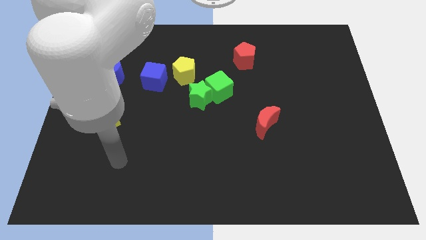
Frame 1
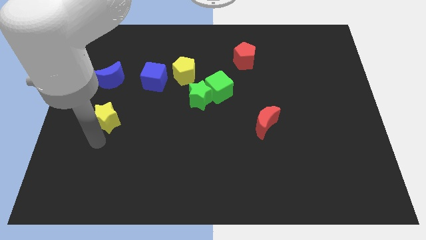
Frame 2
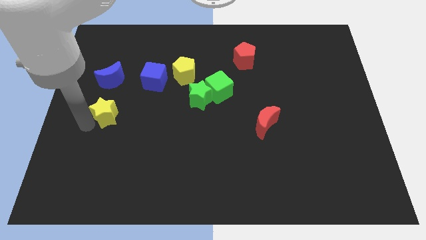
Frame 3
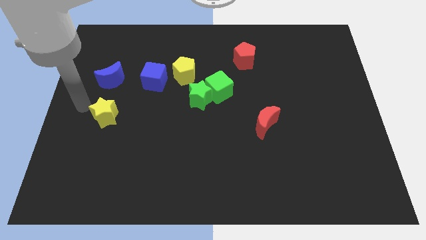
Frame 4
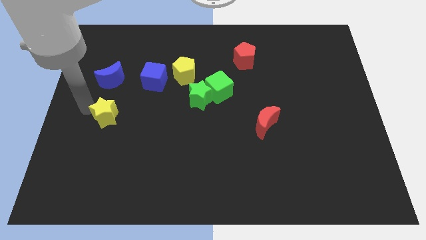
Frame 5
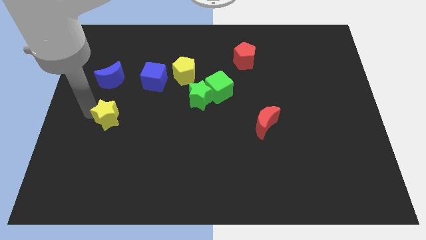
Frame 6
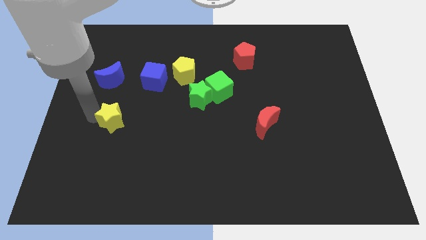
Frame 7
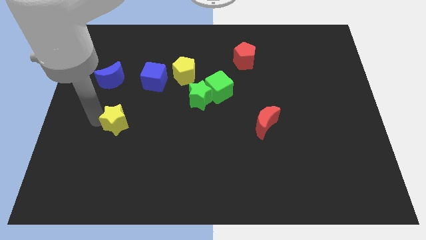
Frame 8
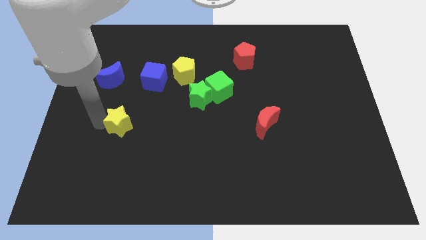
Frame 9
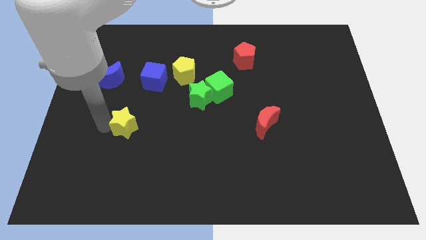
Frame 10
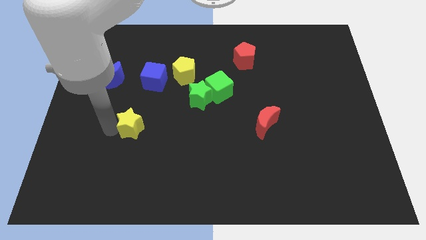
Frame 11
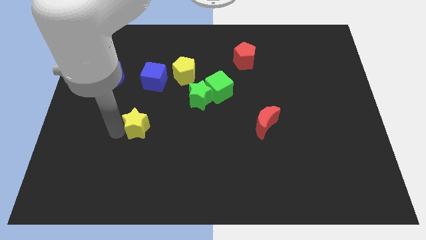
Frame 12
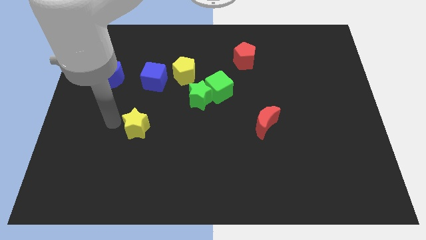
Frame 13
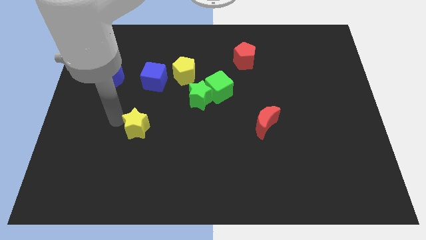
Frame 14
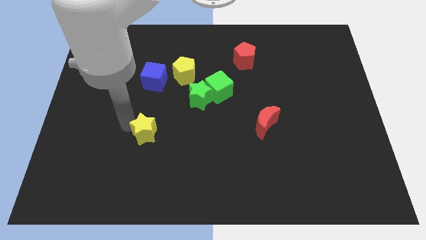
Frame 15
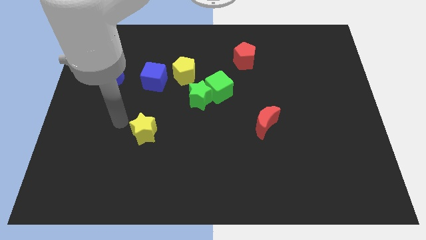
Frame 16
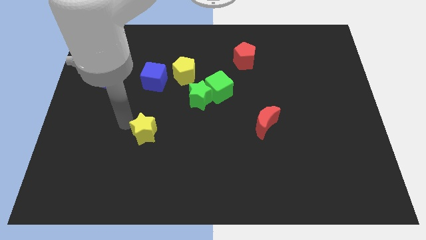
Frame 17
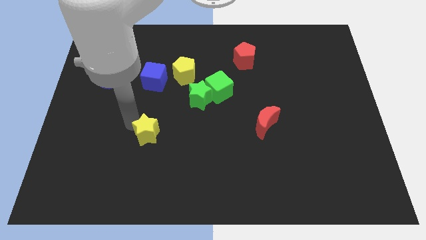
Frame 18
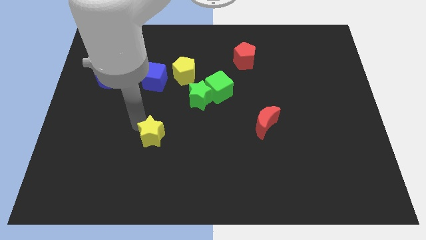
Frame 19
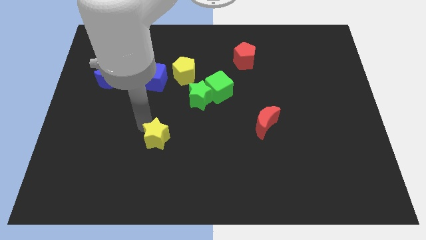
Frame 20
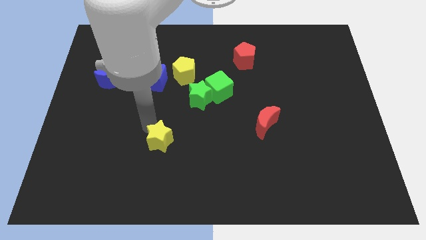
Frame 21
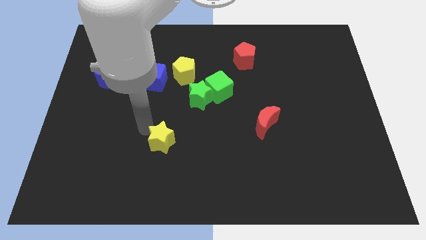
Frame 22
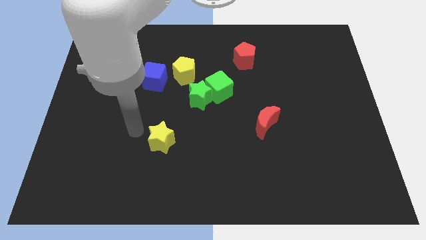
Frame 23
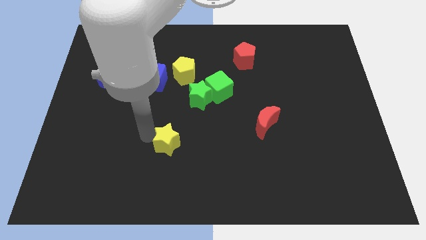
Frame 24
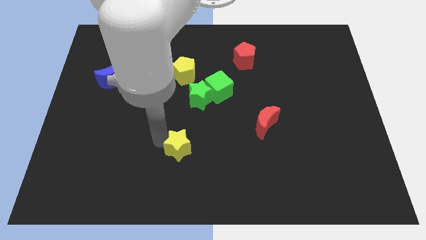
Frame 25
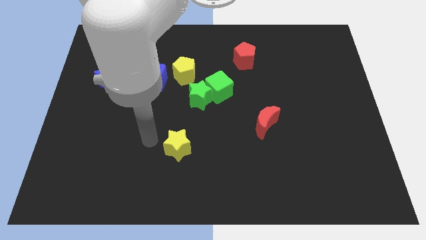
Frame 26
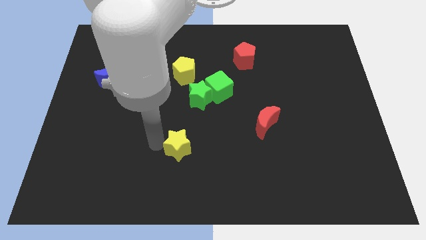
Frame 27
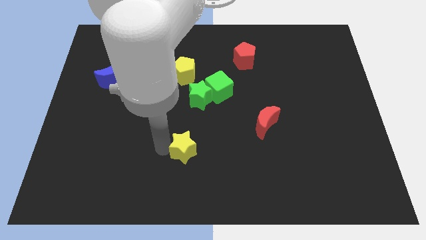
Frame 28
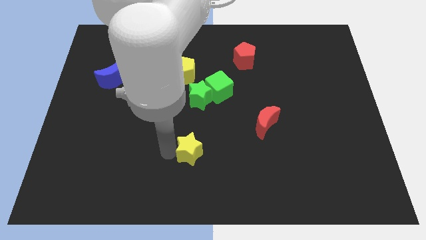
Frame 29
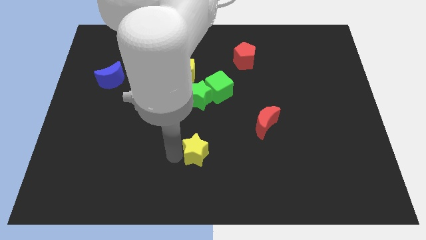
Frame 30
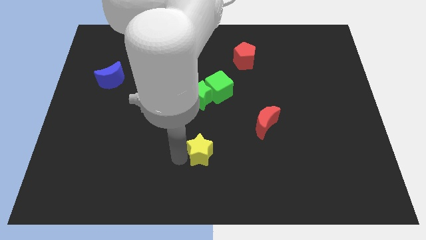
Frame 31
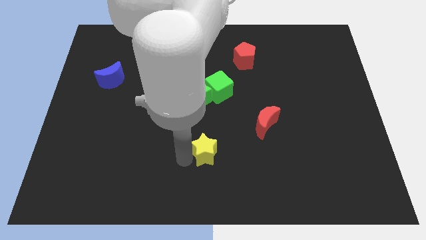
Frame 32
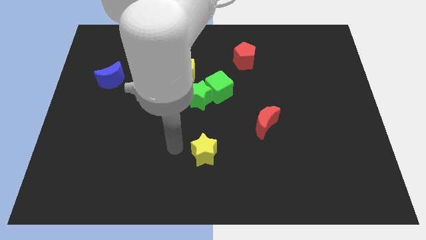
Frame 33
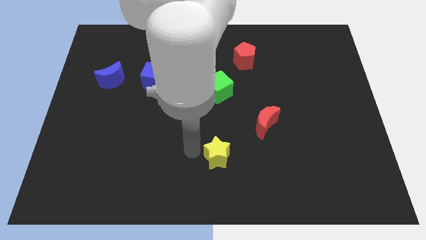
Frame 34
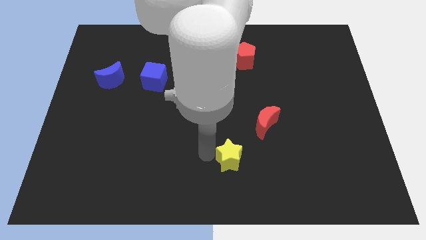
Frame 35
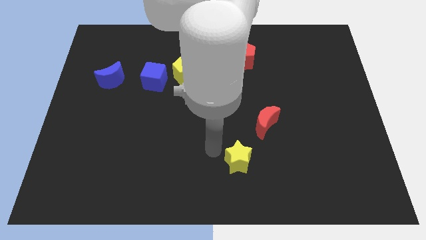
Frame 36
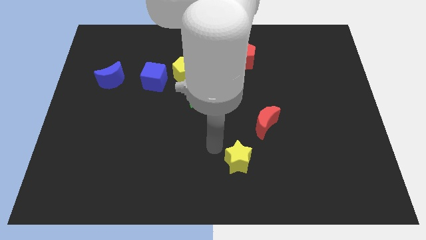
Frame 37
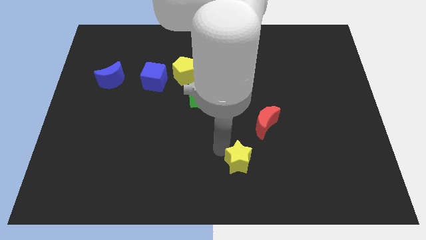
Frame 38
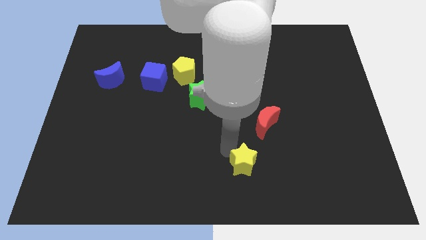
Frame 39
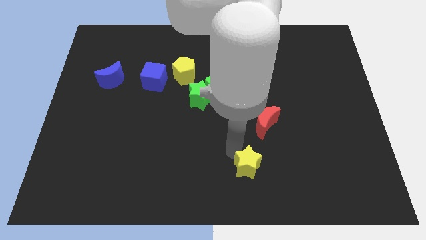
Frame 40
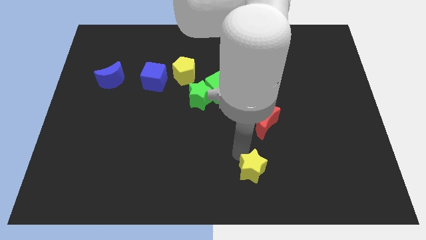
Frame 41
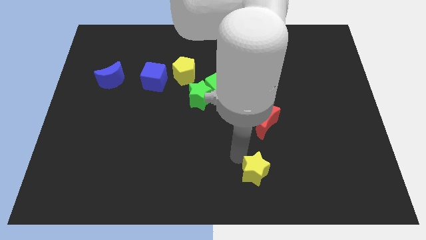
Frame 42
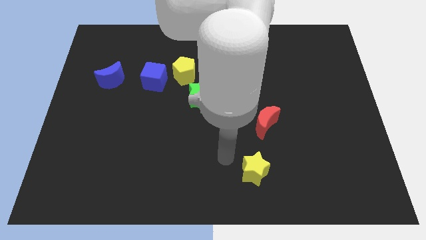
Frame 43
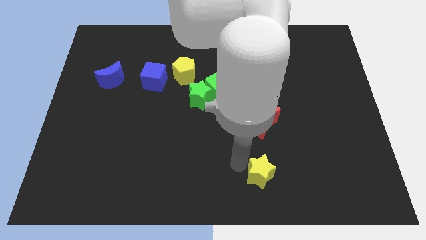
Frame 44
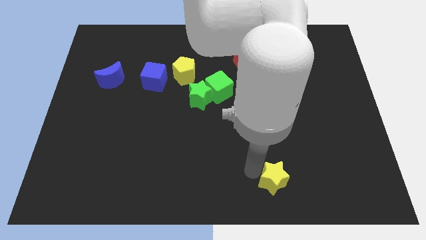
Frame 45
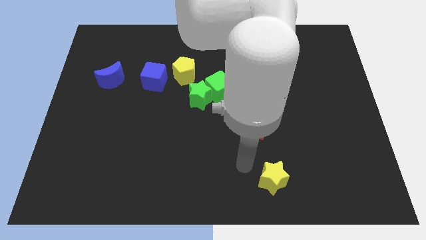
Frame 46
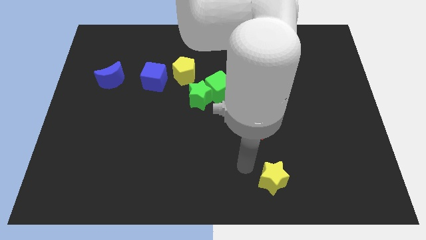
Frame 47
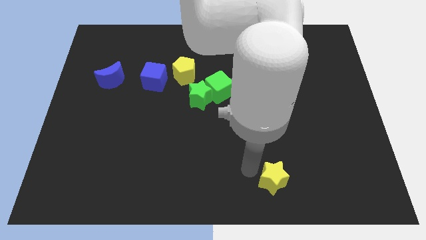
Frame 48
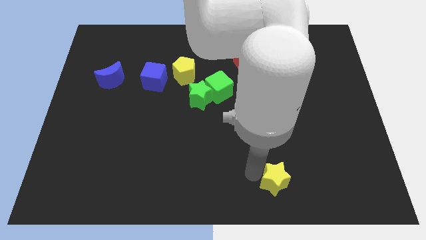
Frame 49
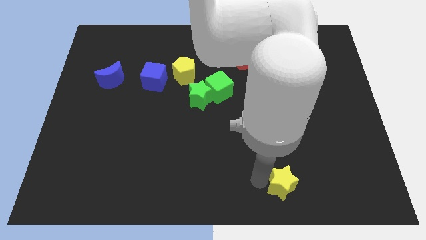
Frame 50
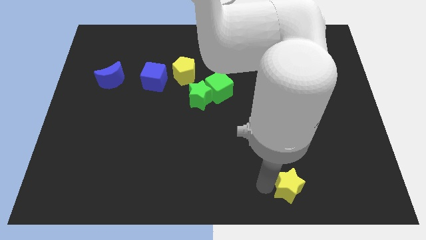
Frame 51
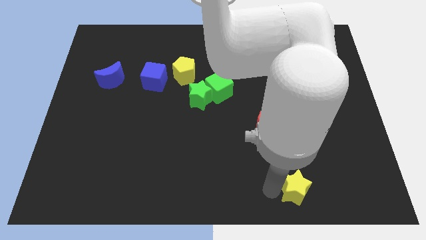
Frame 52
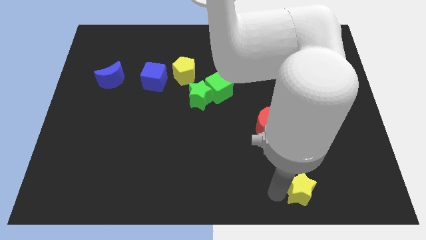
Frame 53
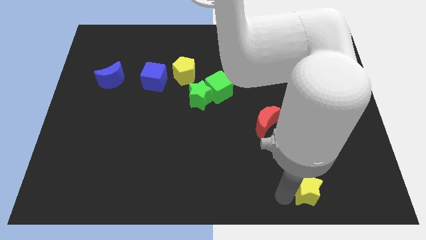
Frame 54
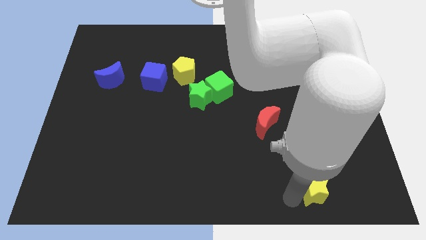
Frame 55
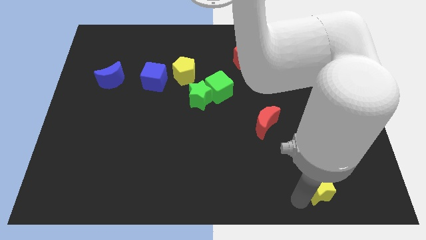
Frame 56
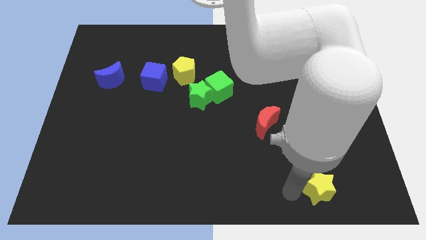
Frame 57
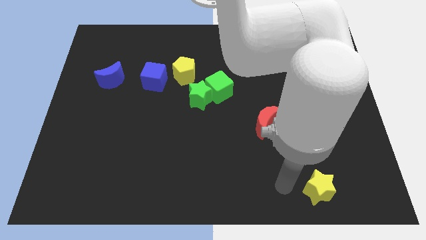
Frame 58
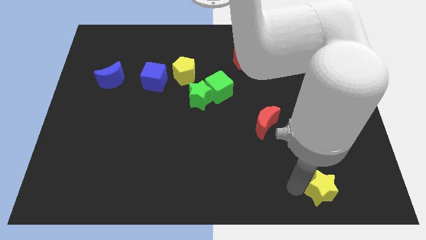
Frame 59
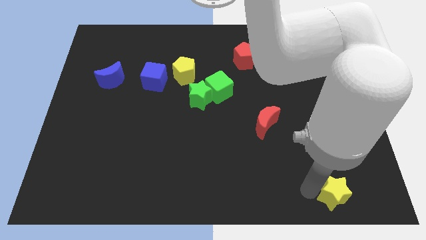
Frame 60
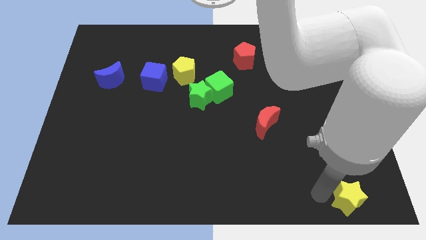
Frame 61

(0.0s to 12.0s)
slide the yellow star to the bottom right corner

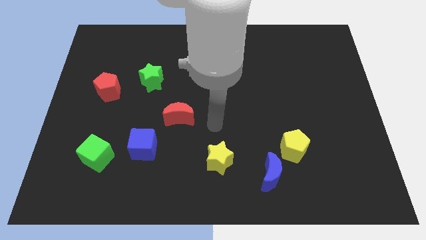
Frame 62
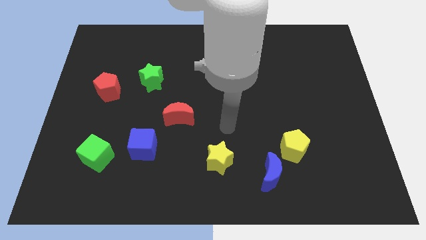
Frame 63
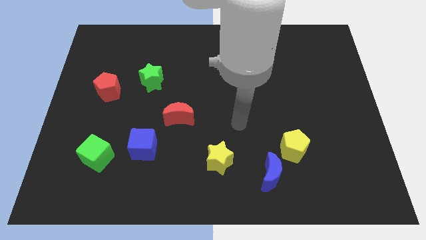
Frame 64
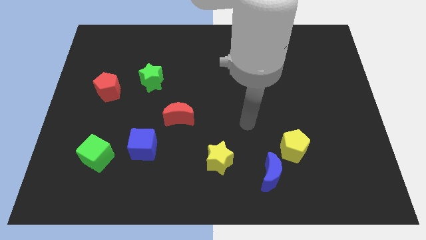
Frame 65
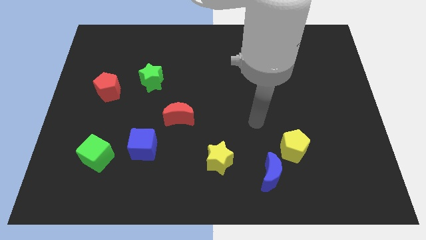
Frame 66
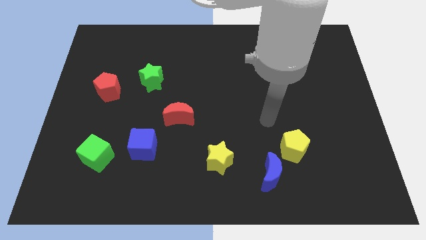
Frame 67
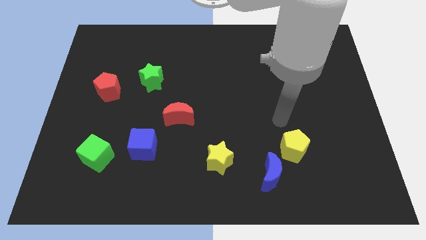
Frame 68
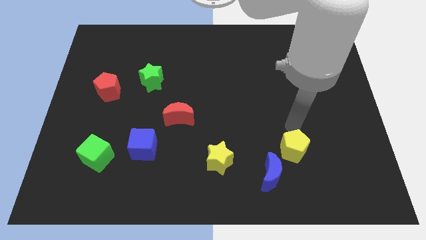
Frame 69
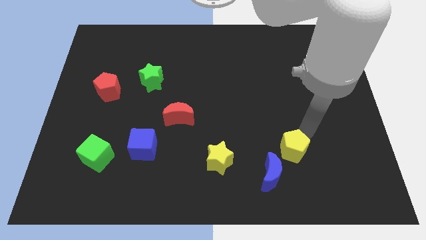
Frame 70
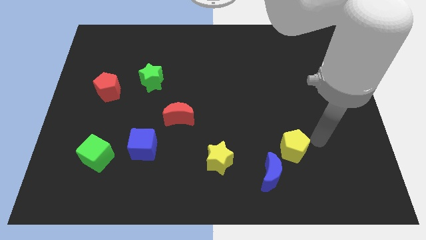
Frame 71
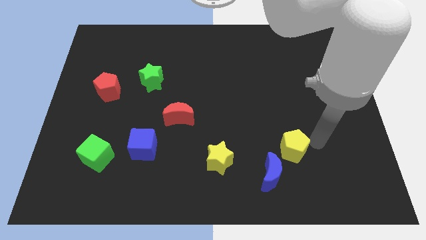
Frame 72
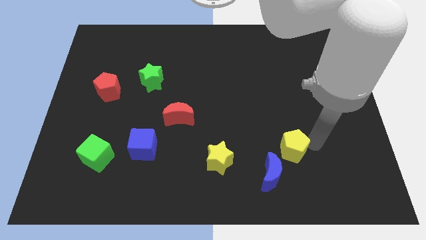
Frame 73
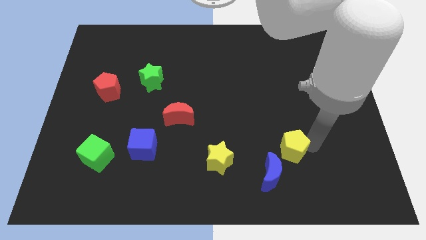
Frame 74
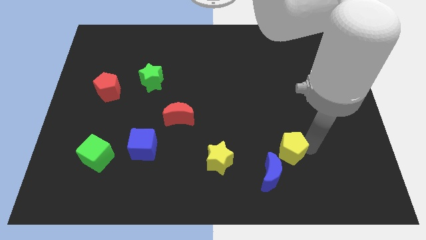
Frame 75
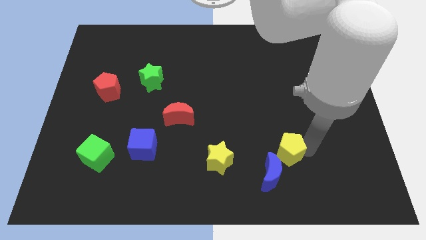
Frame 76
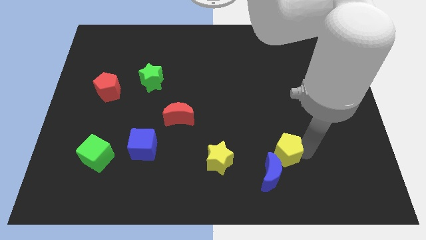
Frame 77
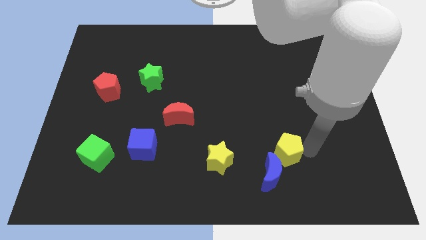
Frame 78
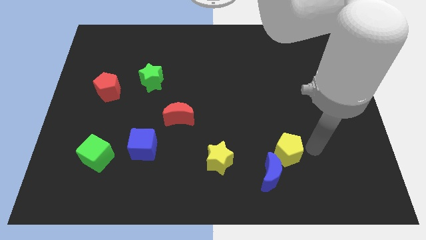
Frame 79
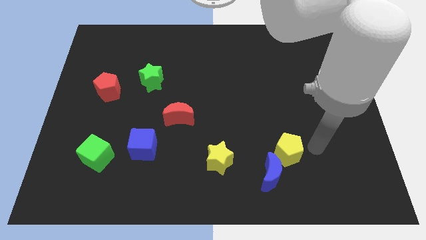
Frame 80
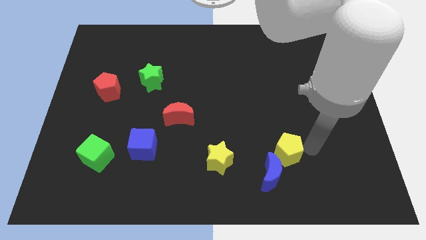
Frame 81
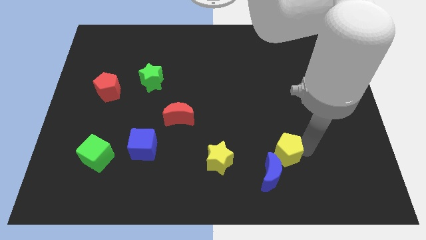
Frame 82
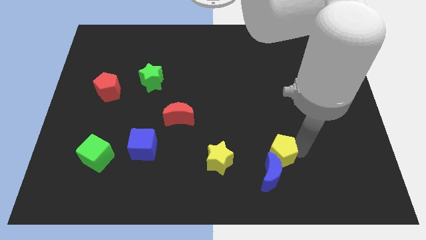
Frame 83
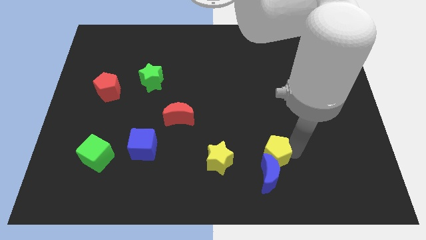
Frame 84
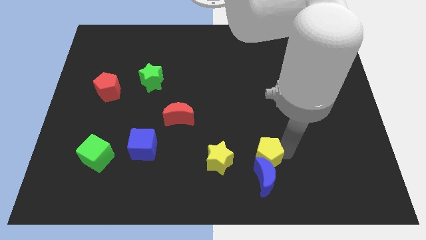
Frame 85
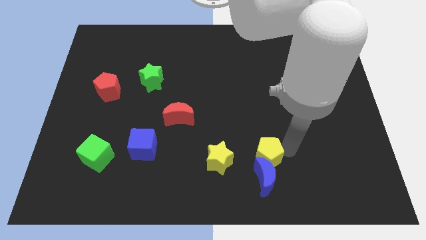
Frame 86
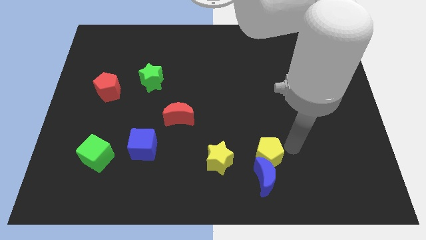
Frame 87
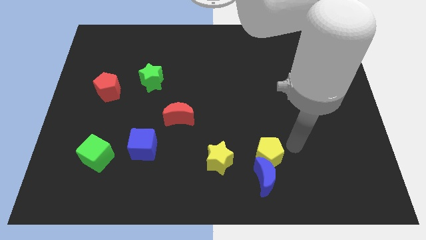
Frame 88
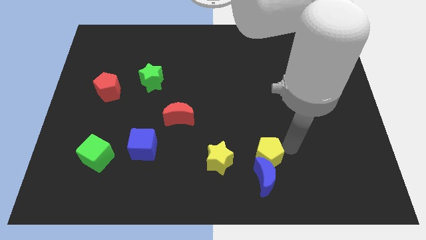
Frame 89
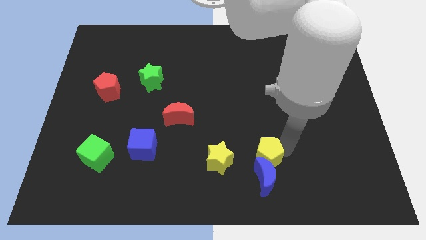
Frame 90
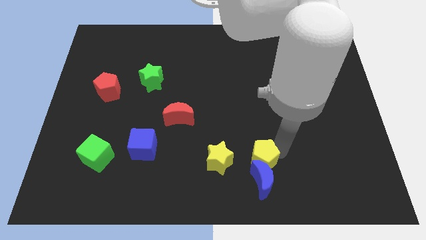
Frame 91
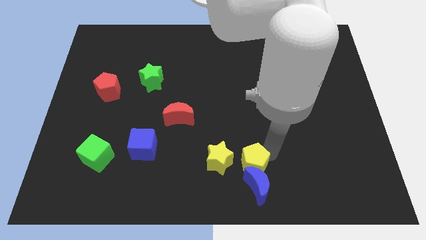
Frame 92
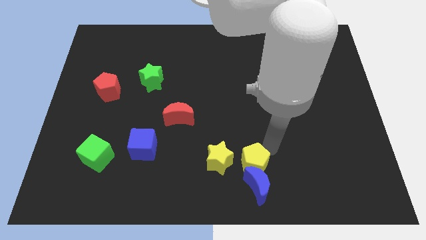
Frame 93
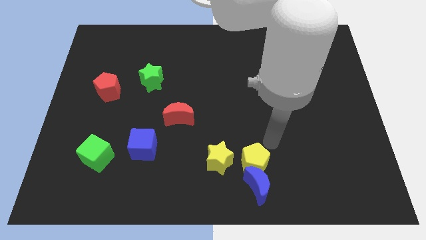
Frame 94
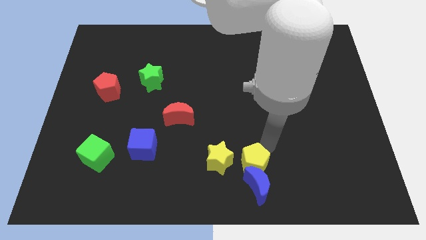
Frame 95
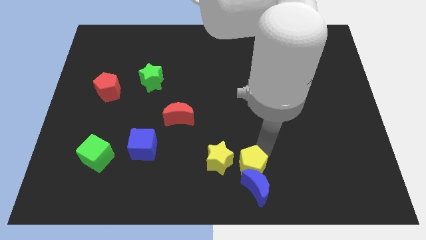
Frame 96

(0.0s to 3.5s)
slide the yellow pentagon to the bottom
